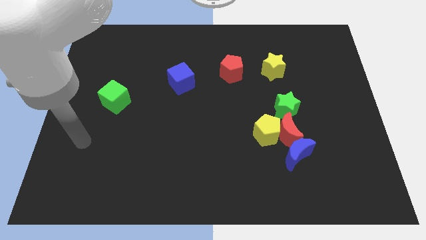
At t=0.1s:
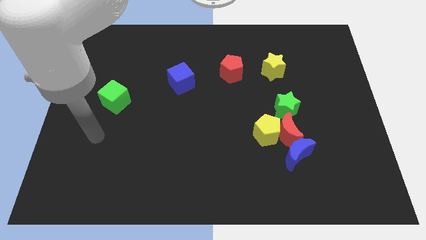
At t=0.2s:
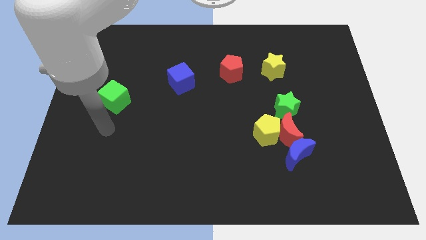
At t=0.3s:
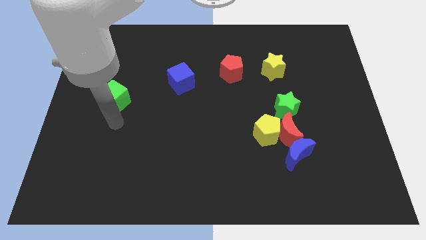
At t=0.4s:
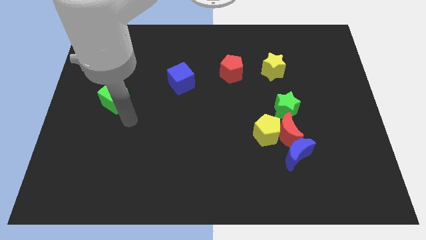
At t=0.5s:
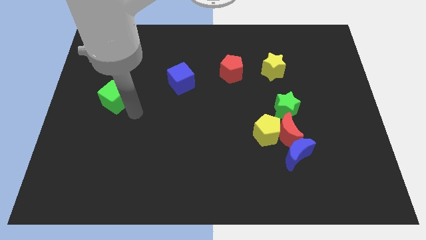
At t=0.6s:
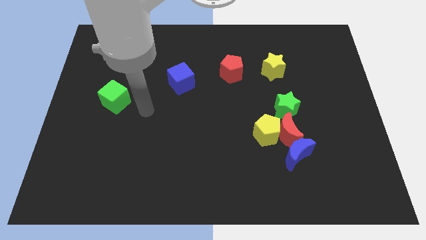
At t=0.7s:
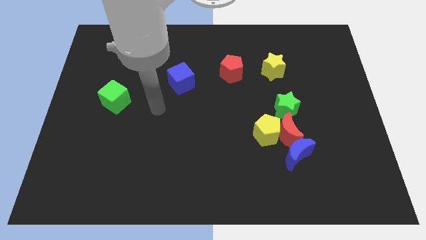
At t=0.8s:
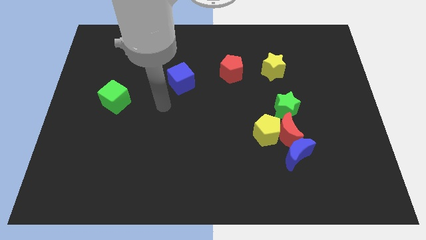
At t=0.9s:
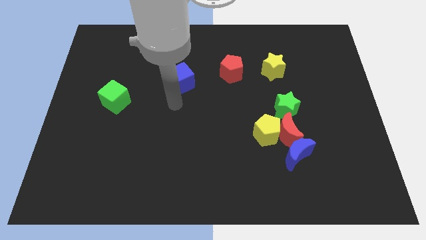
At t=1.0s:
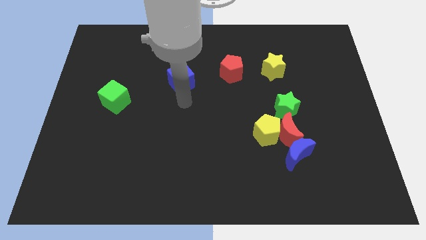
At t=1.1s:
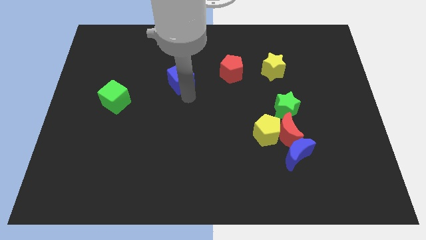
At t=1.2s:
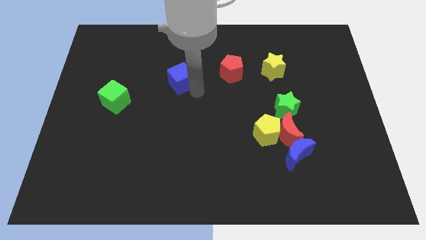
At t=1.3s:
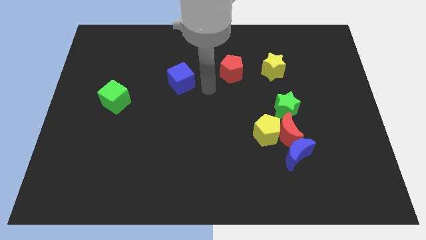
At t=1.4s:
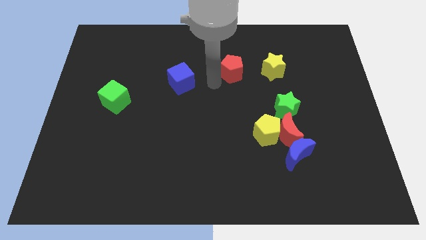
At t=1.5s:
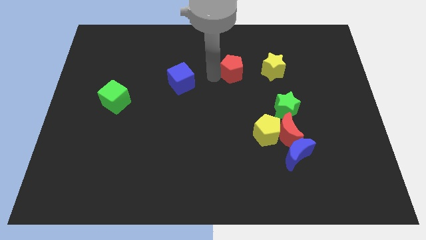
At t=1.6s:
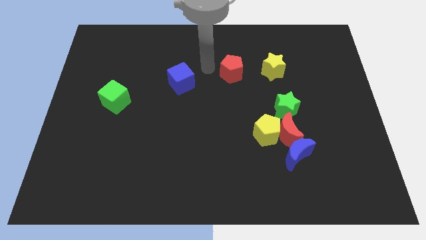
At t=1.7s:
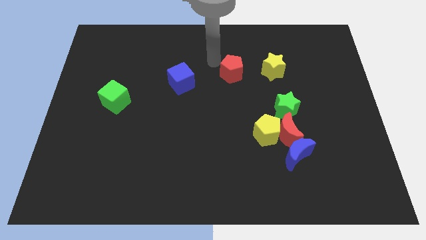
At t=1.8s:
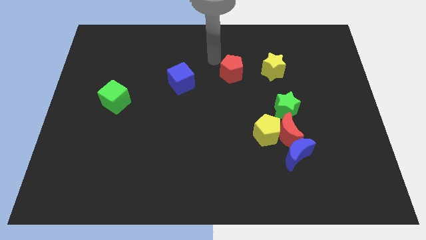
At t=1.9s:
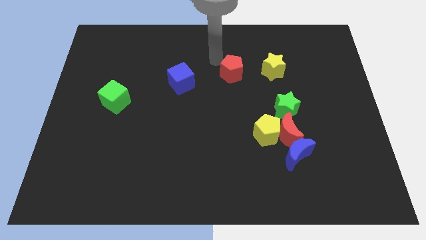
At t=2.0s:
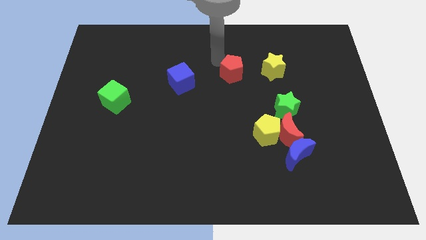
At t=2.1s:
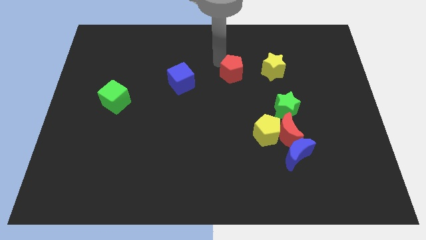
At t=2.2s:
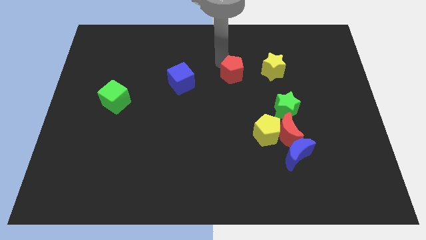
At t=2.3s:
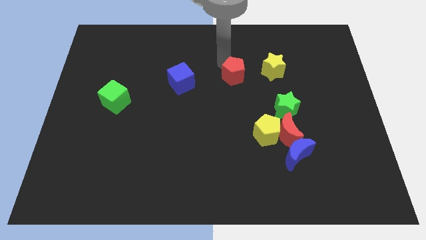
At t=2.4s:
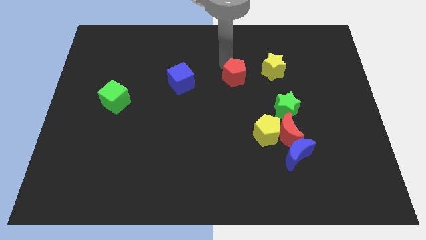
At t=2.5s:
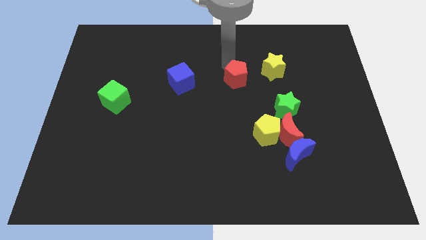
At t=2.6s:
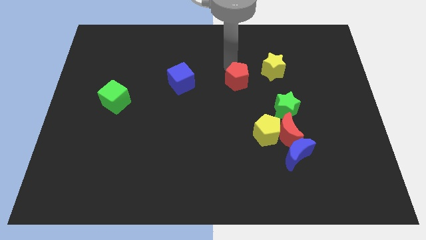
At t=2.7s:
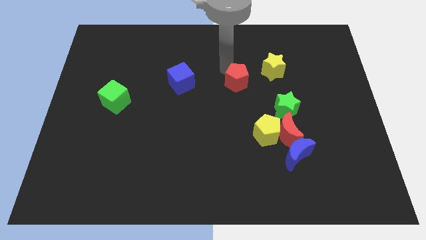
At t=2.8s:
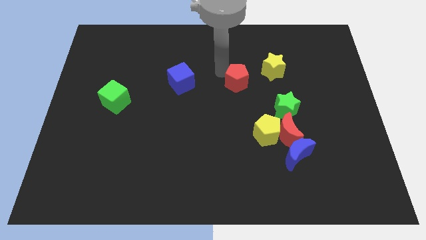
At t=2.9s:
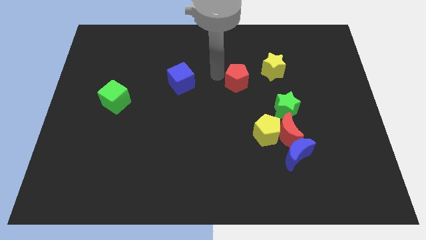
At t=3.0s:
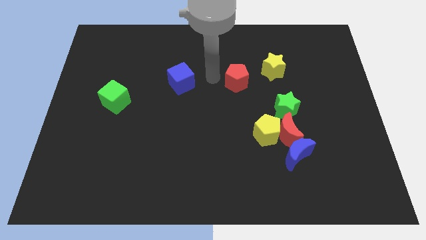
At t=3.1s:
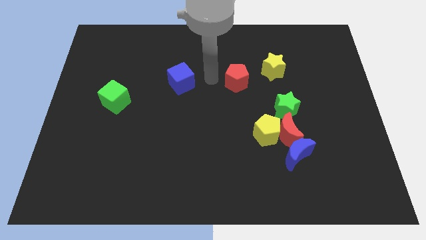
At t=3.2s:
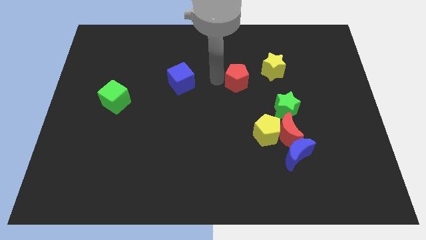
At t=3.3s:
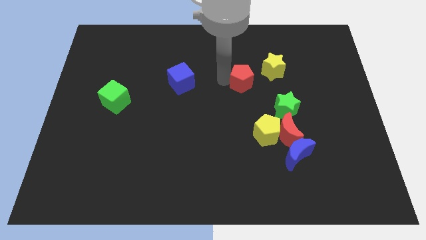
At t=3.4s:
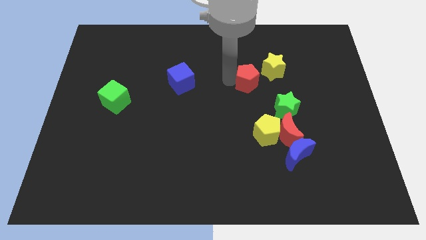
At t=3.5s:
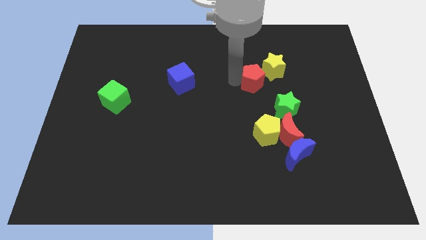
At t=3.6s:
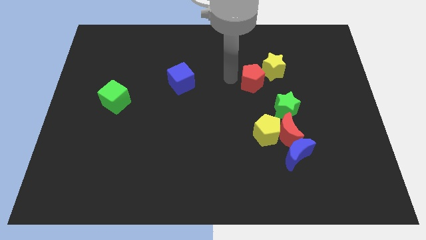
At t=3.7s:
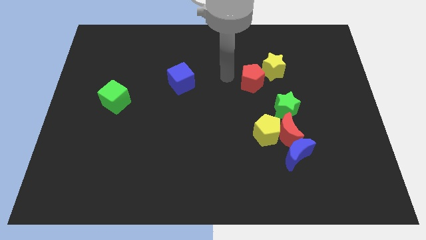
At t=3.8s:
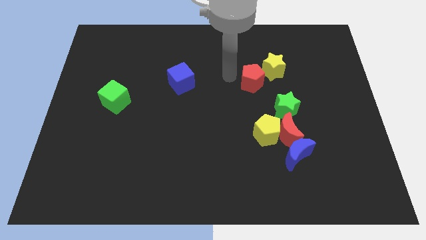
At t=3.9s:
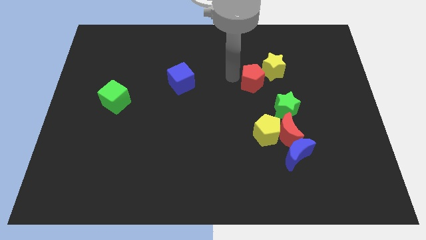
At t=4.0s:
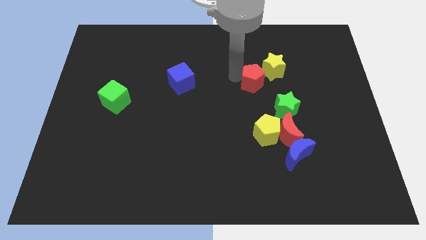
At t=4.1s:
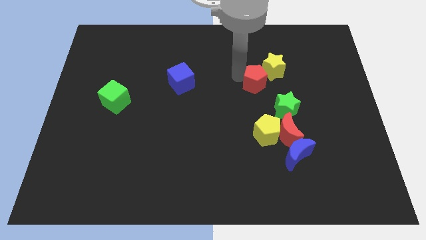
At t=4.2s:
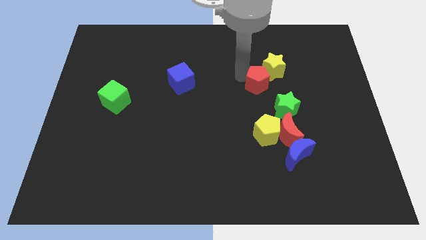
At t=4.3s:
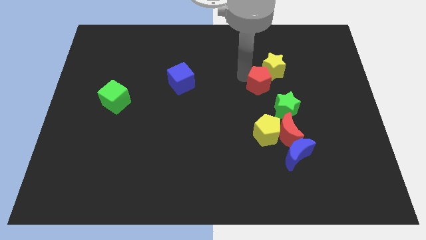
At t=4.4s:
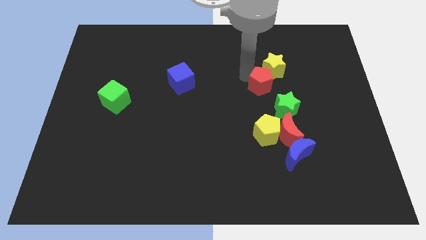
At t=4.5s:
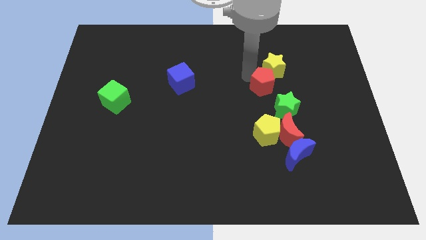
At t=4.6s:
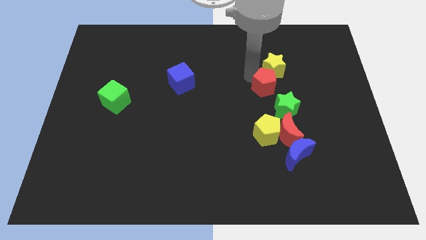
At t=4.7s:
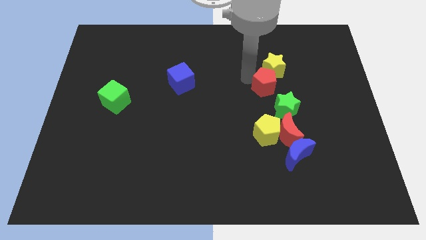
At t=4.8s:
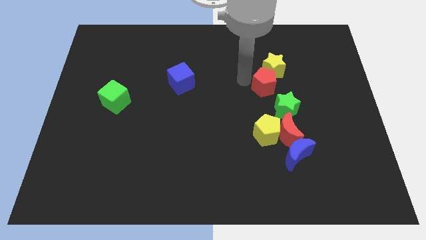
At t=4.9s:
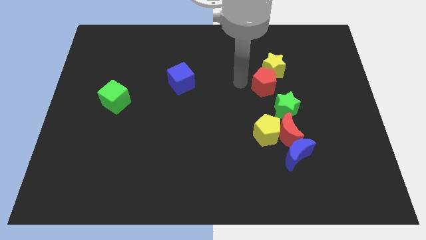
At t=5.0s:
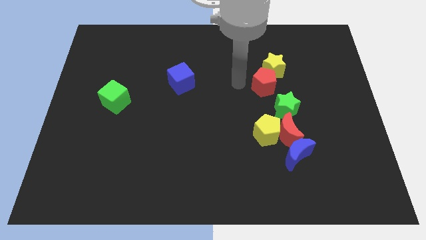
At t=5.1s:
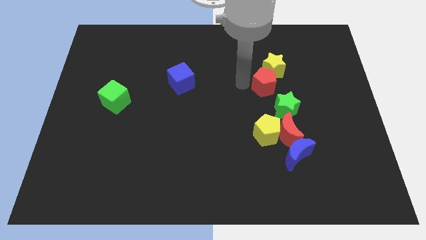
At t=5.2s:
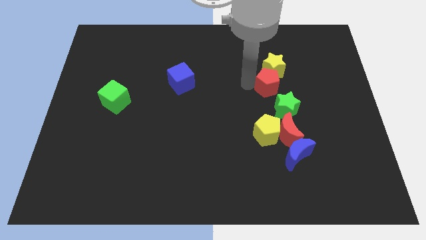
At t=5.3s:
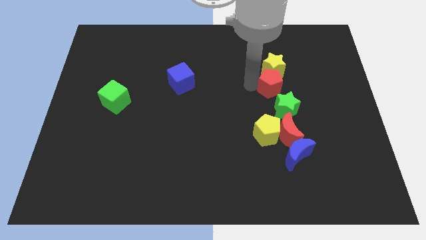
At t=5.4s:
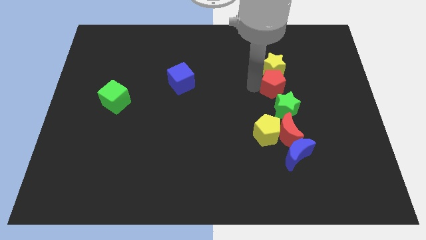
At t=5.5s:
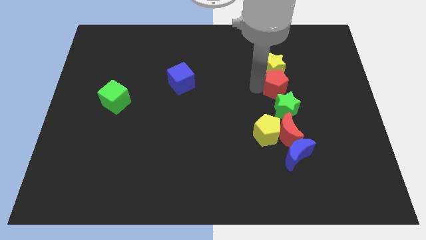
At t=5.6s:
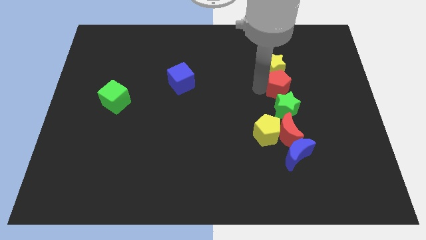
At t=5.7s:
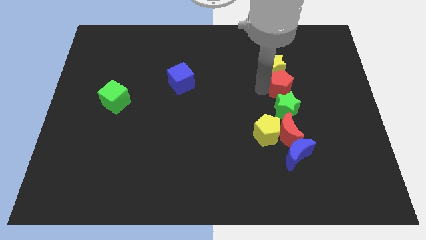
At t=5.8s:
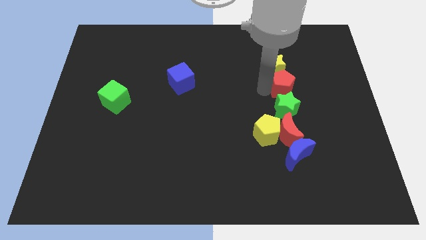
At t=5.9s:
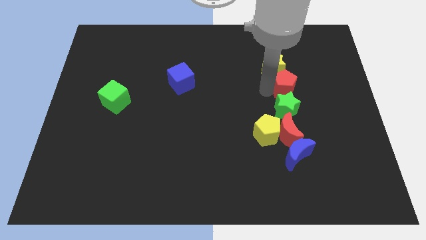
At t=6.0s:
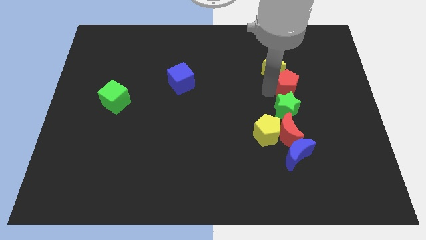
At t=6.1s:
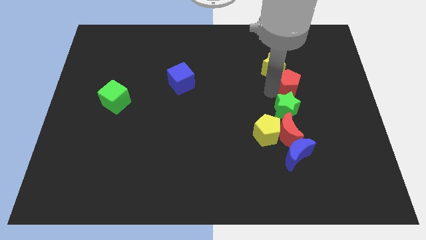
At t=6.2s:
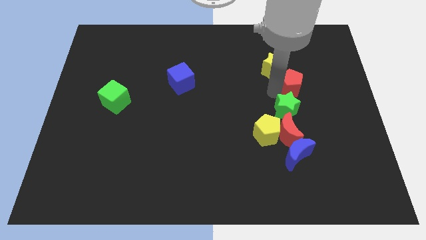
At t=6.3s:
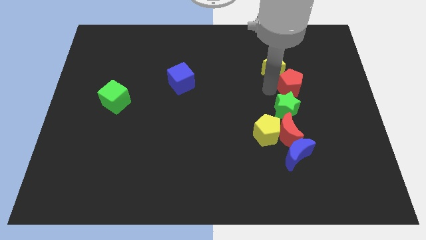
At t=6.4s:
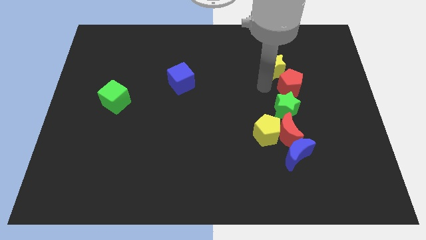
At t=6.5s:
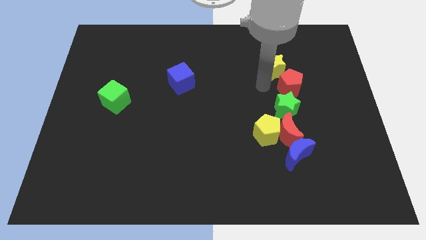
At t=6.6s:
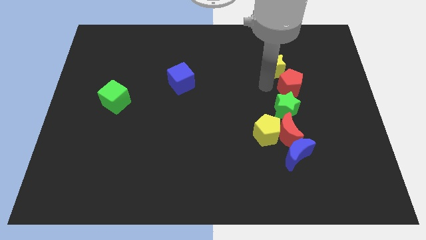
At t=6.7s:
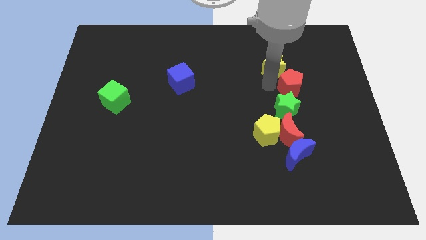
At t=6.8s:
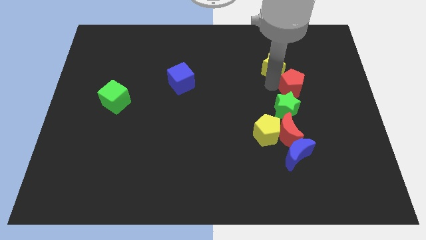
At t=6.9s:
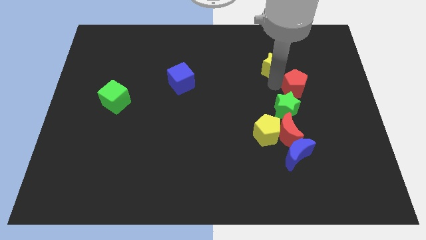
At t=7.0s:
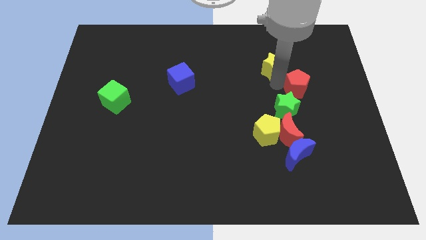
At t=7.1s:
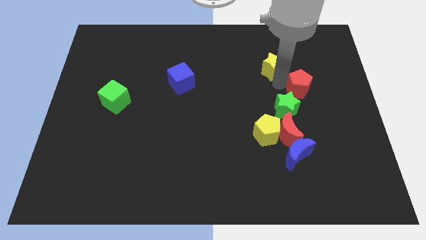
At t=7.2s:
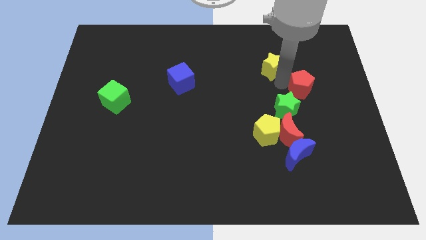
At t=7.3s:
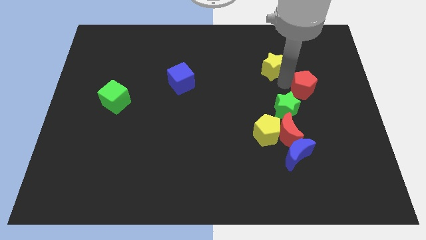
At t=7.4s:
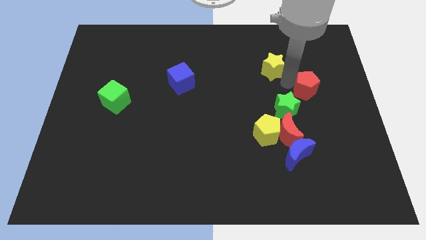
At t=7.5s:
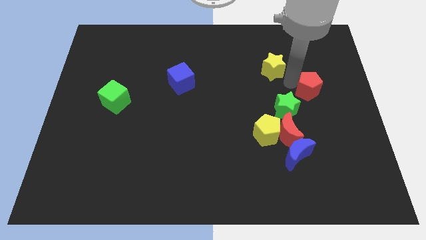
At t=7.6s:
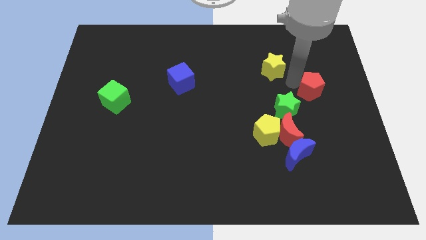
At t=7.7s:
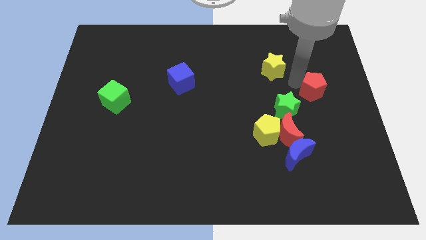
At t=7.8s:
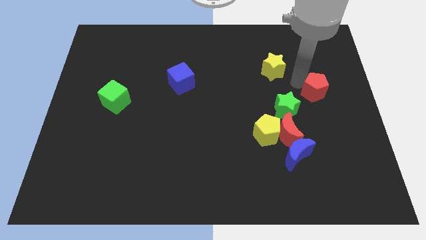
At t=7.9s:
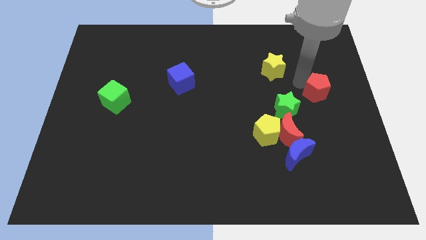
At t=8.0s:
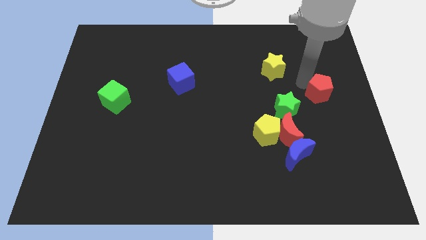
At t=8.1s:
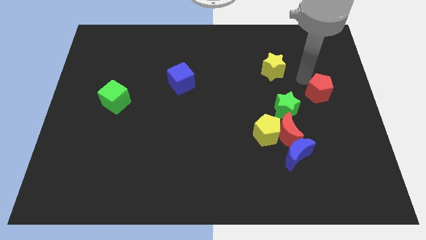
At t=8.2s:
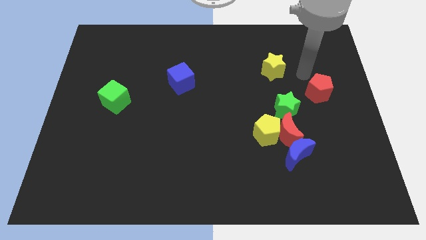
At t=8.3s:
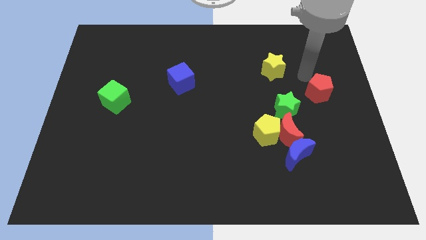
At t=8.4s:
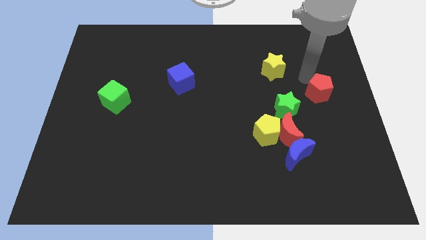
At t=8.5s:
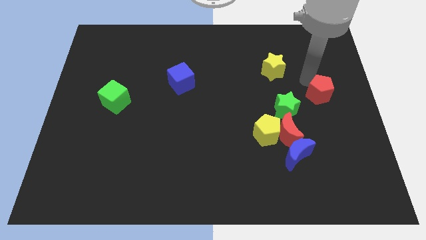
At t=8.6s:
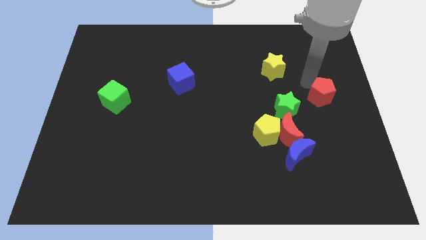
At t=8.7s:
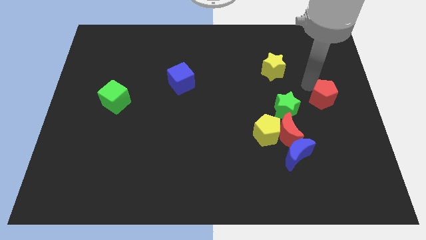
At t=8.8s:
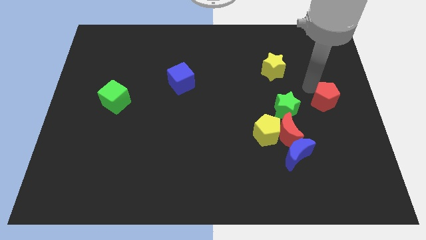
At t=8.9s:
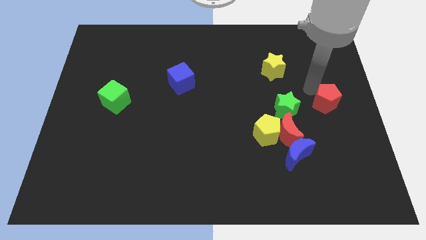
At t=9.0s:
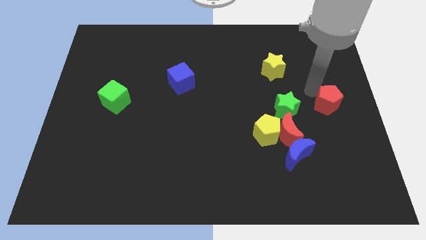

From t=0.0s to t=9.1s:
push the red pentagon diagonally down and to the right
